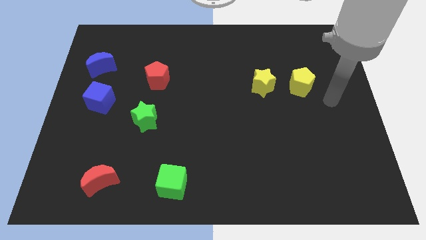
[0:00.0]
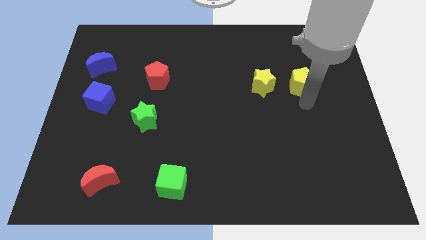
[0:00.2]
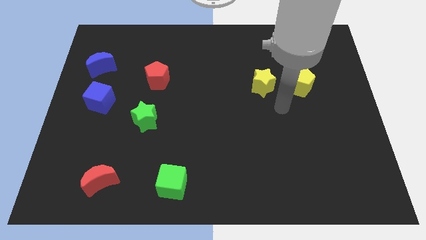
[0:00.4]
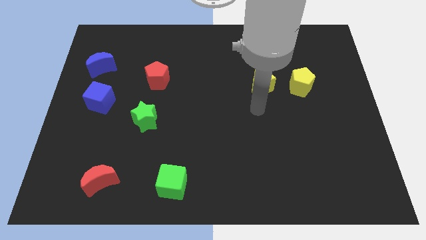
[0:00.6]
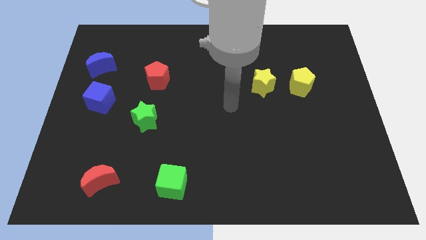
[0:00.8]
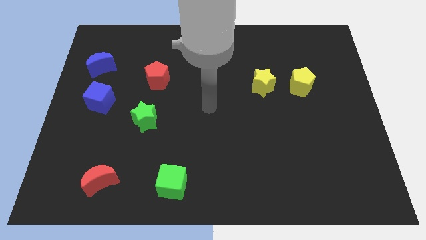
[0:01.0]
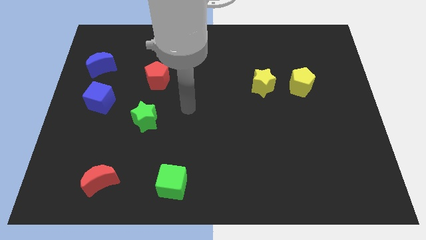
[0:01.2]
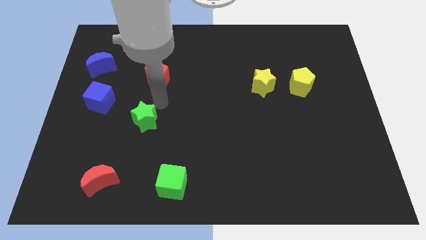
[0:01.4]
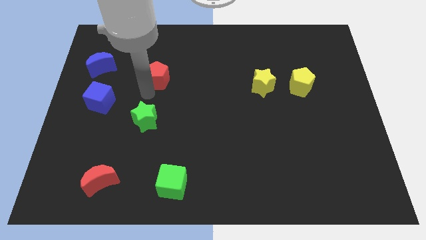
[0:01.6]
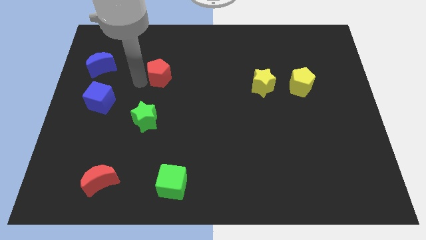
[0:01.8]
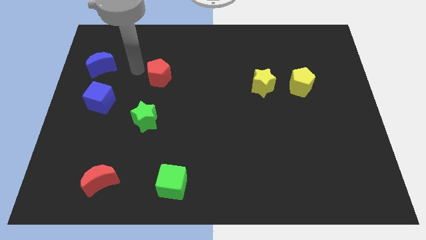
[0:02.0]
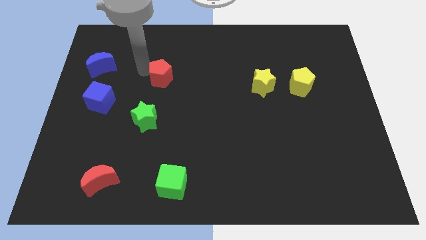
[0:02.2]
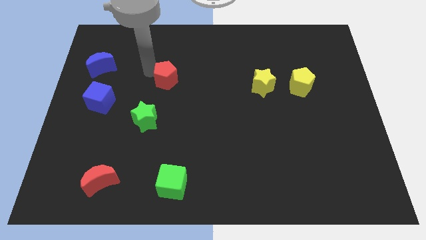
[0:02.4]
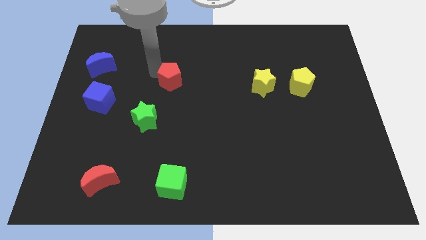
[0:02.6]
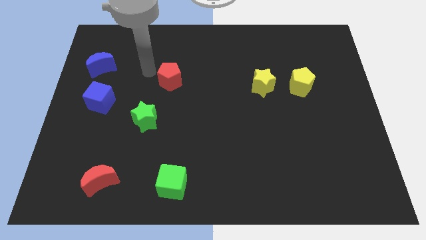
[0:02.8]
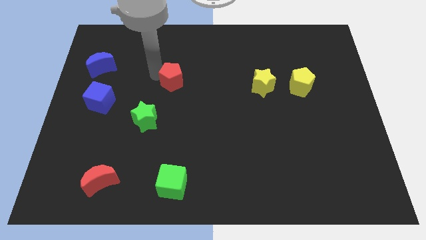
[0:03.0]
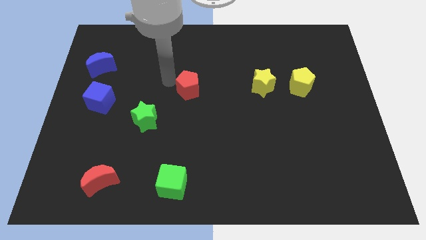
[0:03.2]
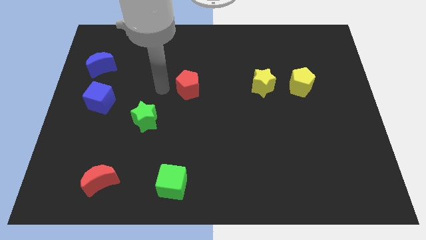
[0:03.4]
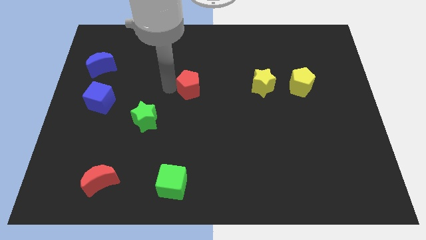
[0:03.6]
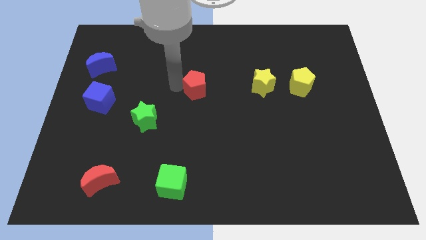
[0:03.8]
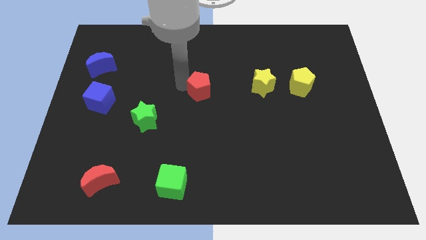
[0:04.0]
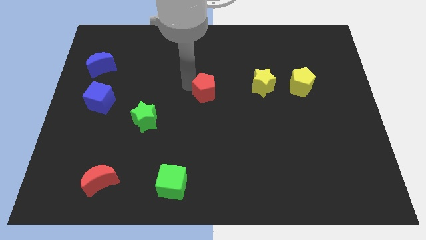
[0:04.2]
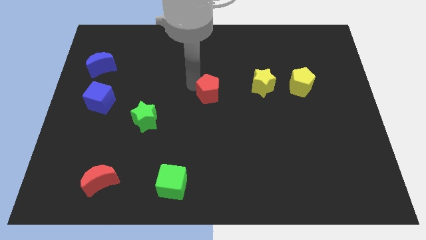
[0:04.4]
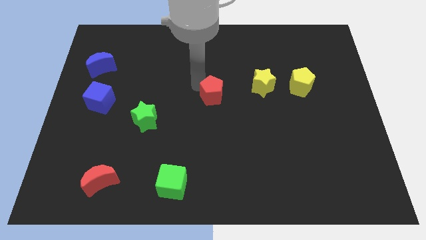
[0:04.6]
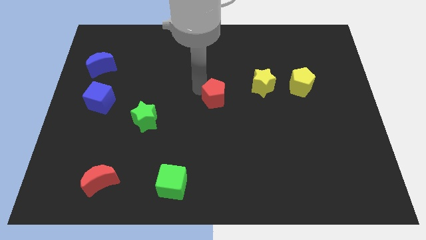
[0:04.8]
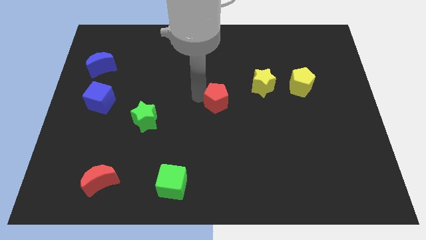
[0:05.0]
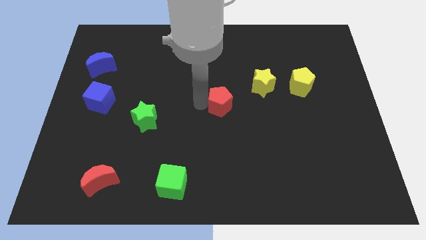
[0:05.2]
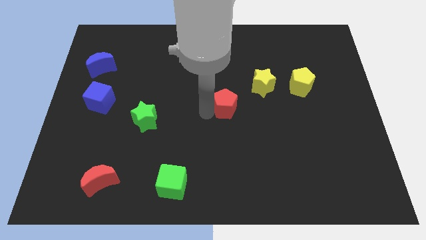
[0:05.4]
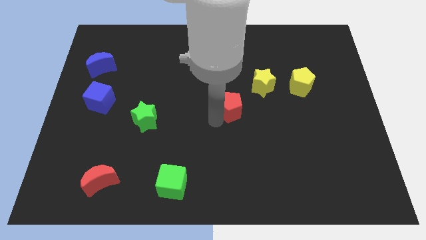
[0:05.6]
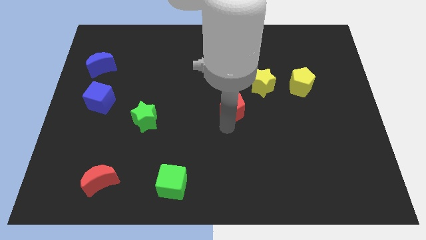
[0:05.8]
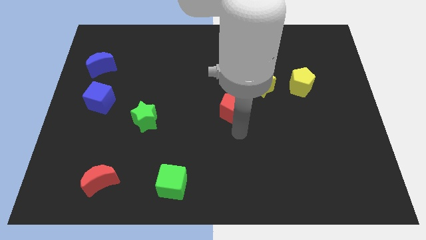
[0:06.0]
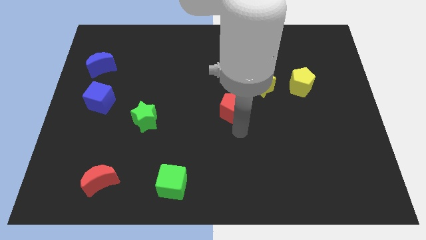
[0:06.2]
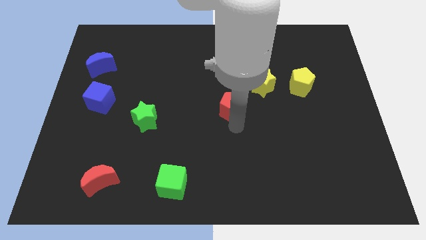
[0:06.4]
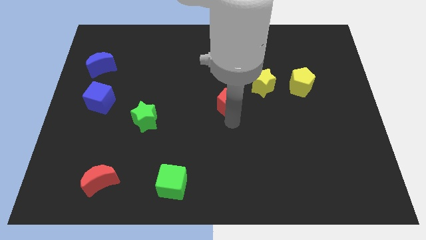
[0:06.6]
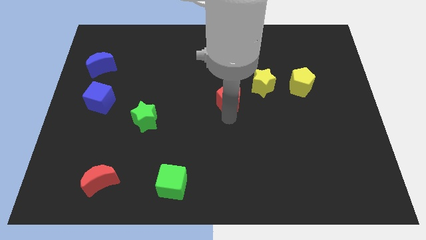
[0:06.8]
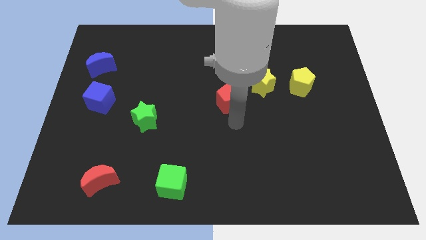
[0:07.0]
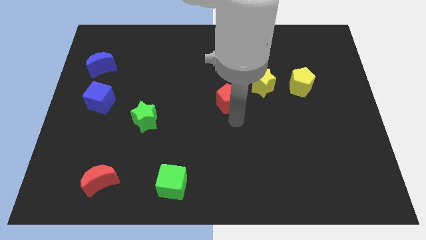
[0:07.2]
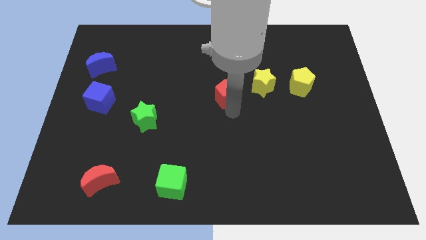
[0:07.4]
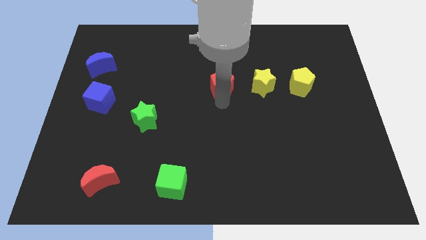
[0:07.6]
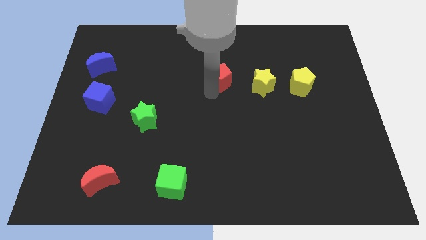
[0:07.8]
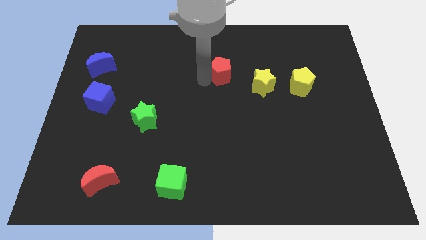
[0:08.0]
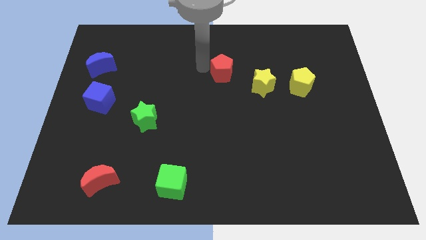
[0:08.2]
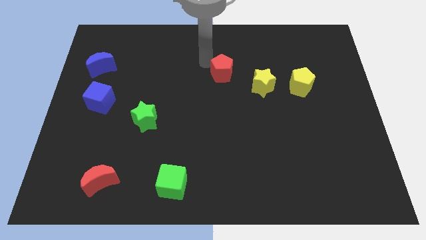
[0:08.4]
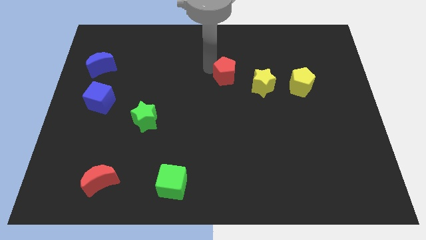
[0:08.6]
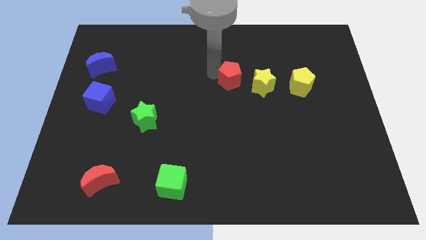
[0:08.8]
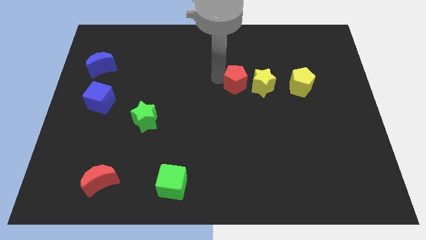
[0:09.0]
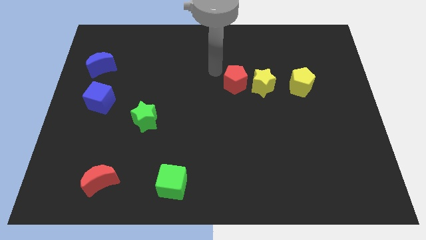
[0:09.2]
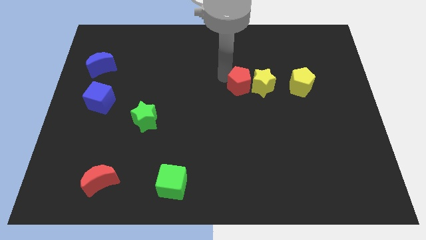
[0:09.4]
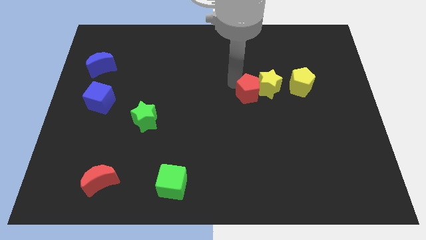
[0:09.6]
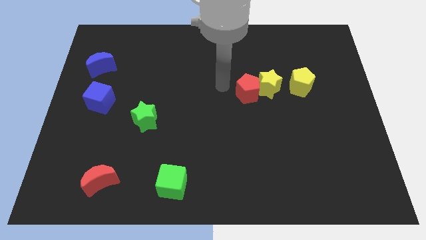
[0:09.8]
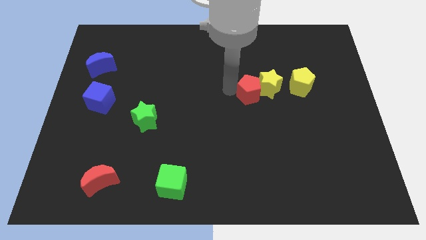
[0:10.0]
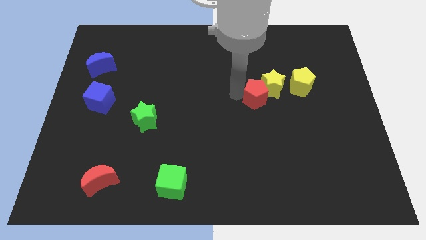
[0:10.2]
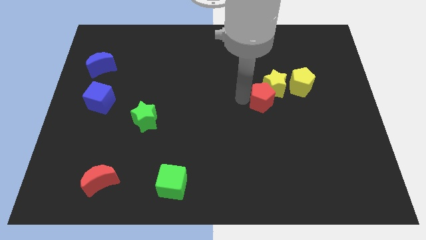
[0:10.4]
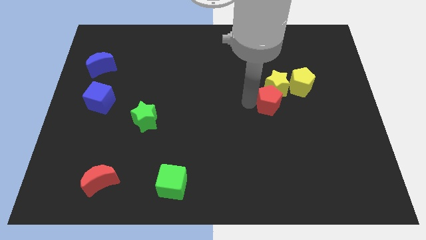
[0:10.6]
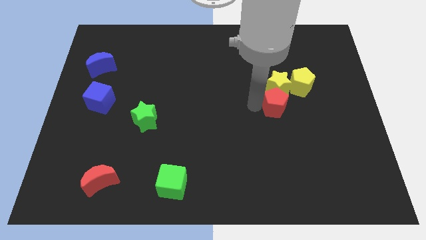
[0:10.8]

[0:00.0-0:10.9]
move the red pentagon to the bottom right of the yellow star

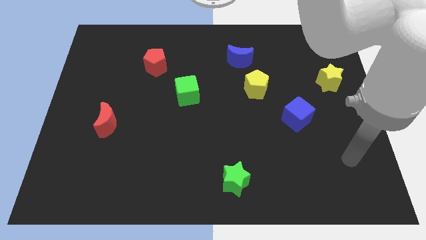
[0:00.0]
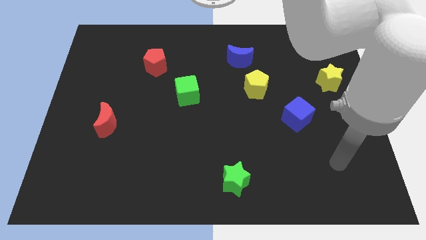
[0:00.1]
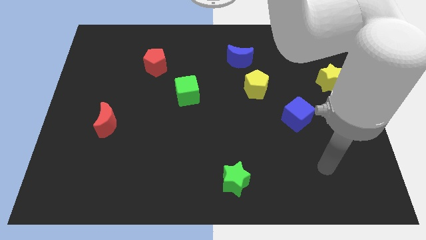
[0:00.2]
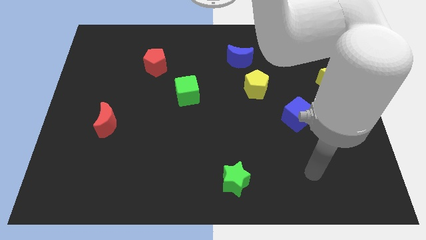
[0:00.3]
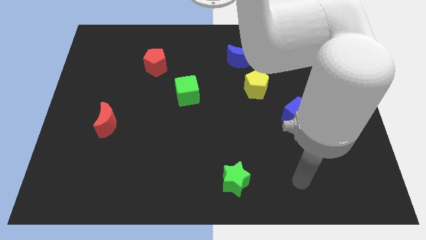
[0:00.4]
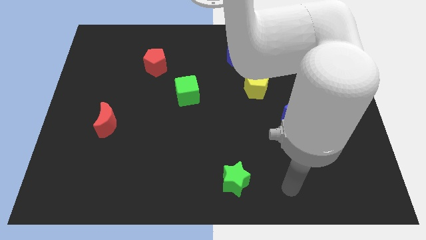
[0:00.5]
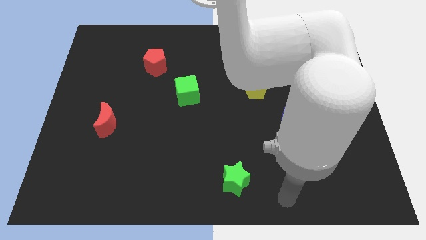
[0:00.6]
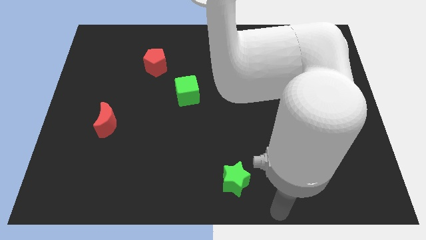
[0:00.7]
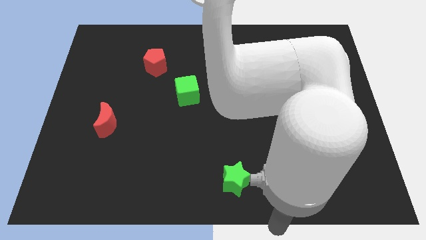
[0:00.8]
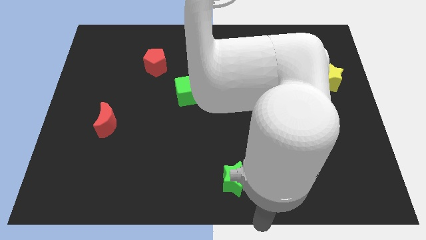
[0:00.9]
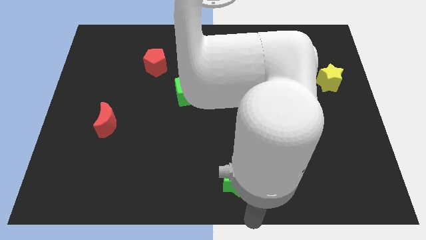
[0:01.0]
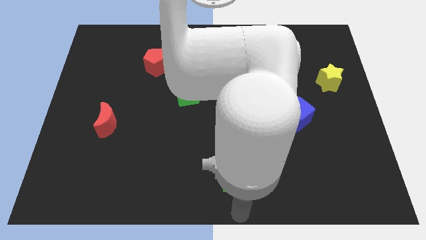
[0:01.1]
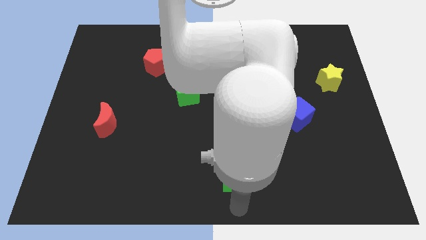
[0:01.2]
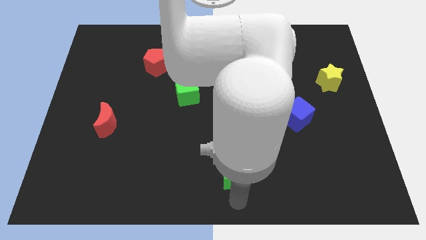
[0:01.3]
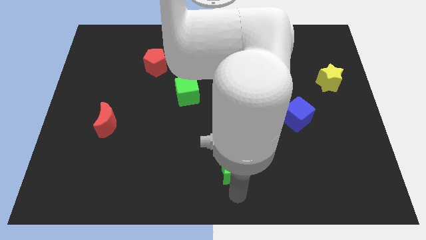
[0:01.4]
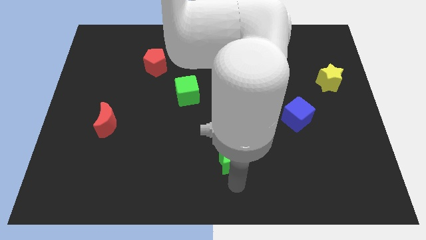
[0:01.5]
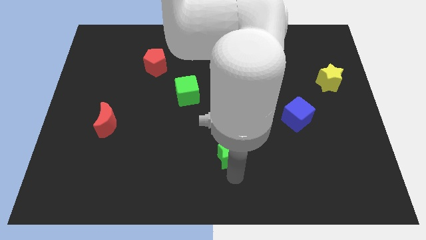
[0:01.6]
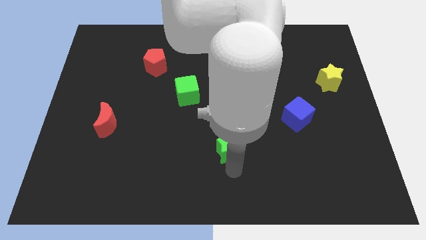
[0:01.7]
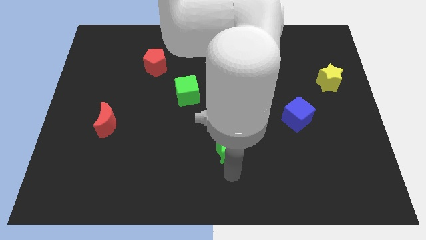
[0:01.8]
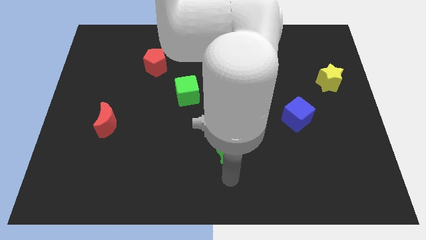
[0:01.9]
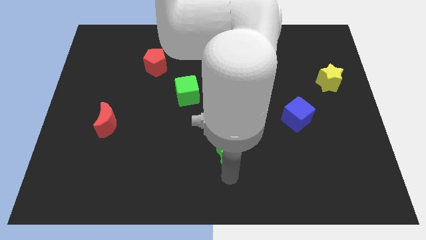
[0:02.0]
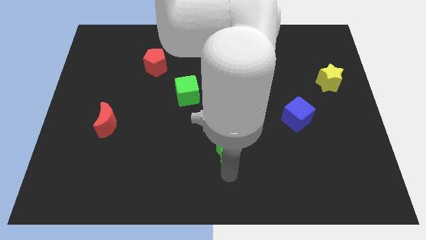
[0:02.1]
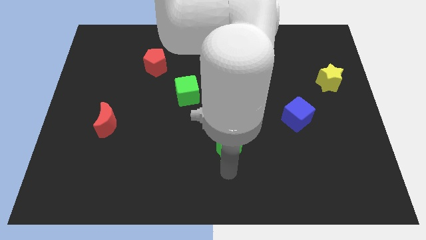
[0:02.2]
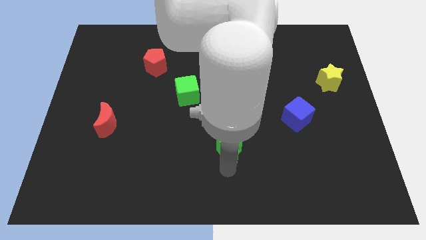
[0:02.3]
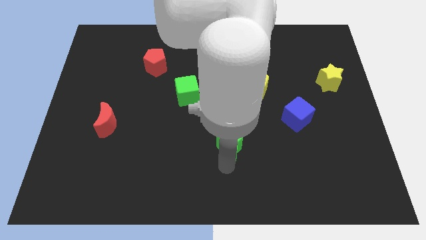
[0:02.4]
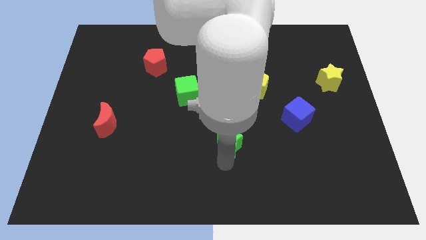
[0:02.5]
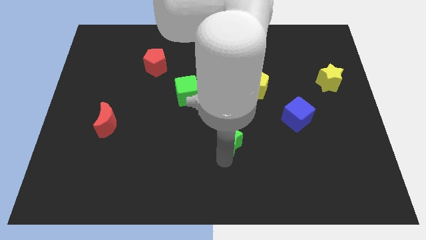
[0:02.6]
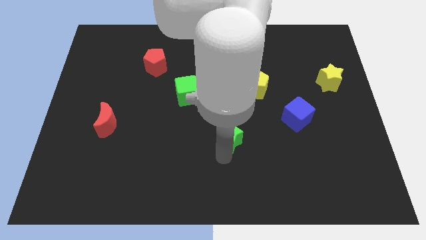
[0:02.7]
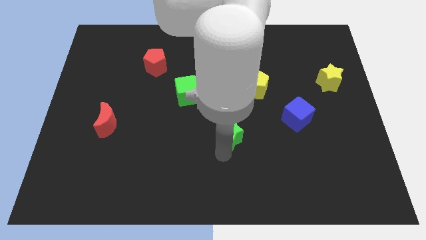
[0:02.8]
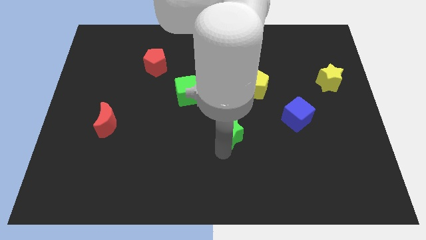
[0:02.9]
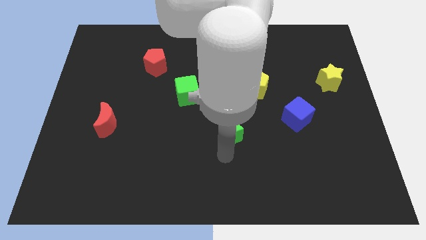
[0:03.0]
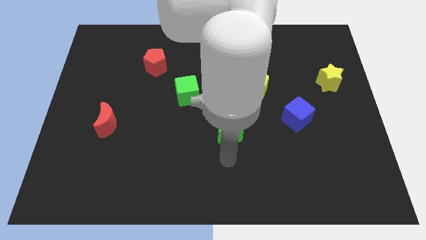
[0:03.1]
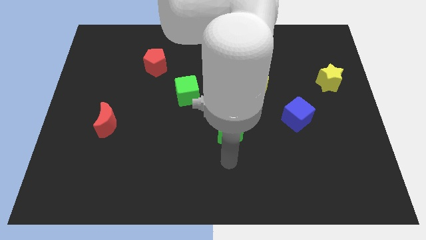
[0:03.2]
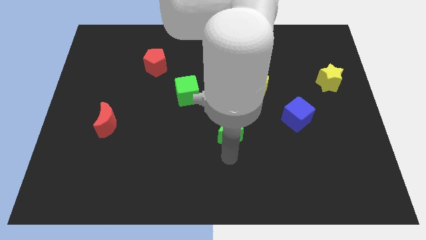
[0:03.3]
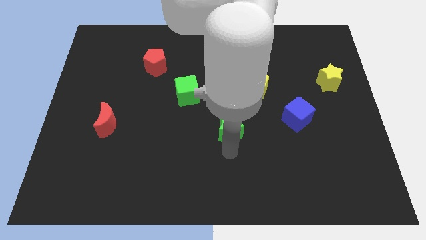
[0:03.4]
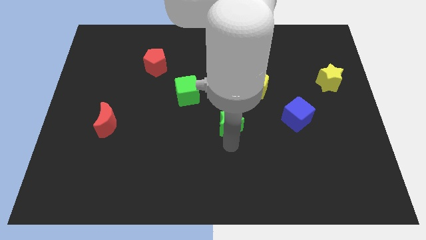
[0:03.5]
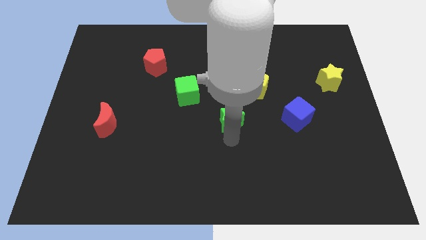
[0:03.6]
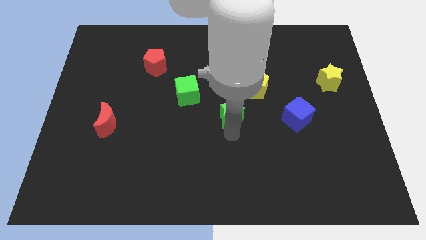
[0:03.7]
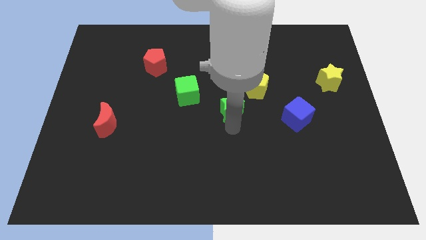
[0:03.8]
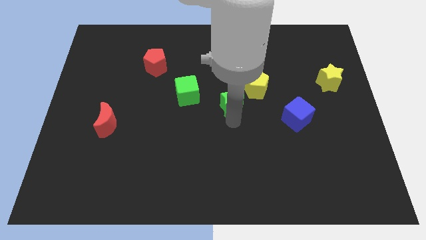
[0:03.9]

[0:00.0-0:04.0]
slide the green star to the right side of the green cube
